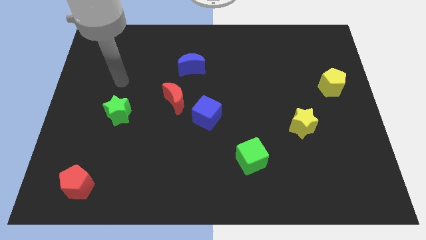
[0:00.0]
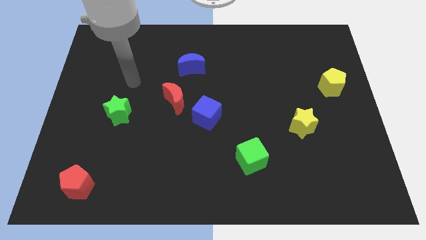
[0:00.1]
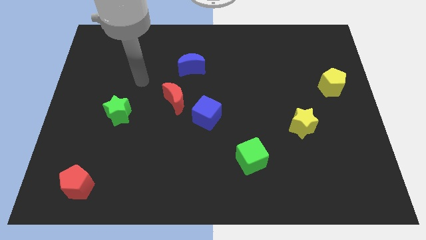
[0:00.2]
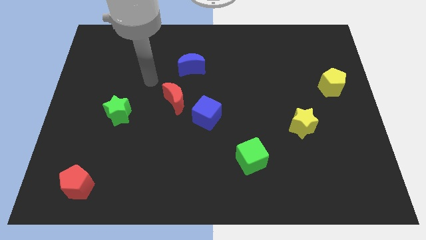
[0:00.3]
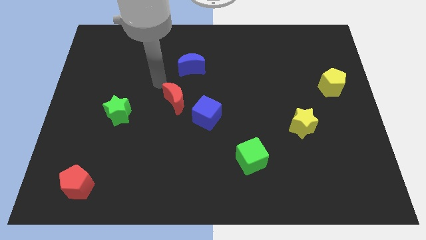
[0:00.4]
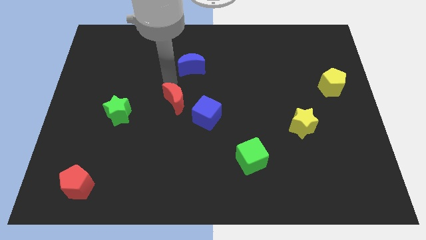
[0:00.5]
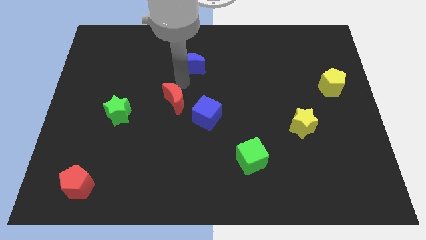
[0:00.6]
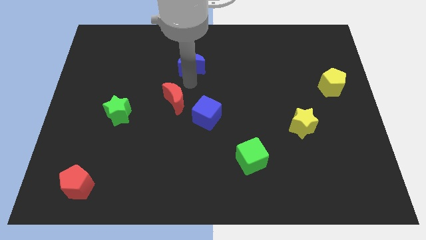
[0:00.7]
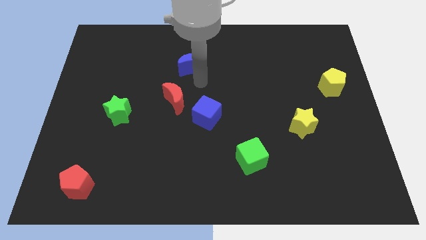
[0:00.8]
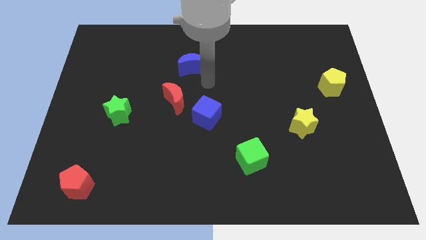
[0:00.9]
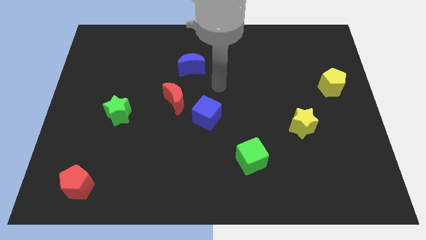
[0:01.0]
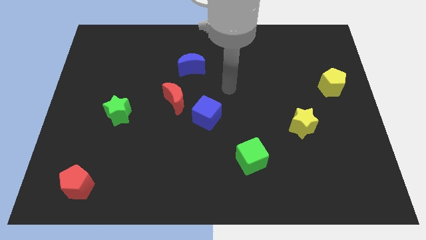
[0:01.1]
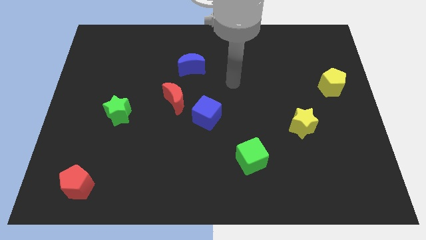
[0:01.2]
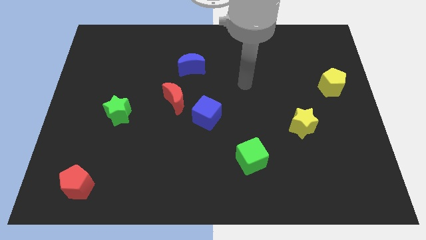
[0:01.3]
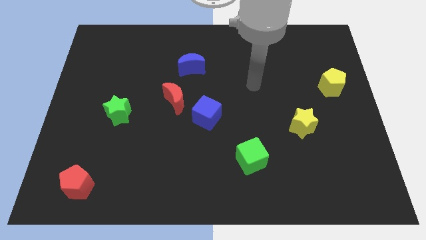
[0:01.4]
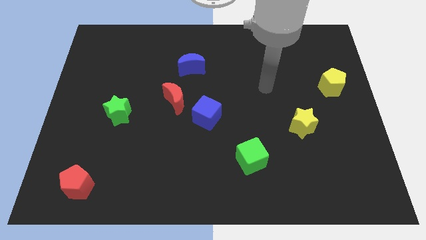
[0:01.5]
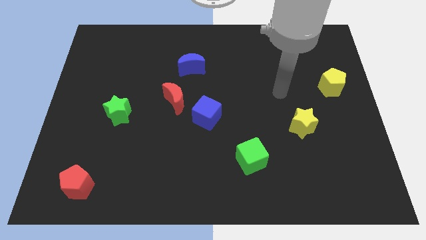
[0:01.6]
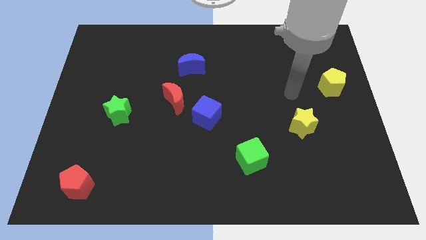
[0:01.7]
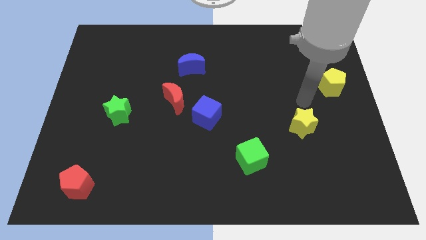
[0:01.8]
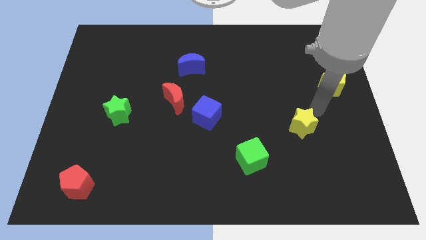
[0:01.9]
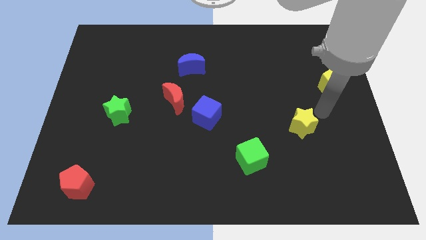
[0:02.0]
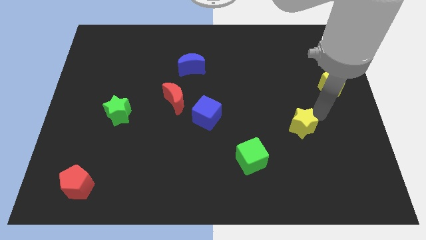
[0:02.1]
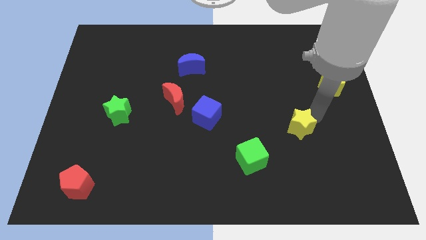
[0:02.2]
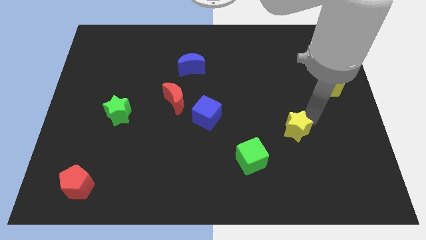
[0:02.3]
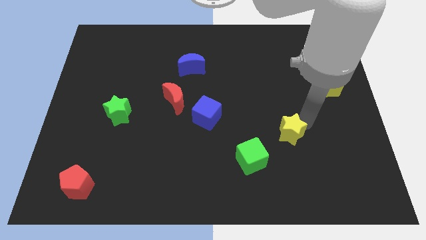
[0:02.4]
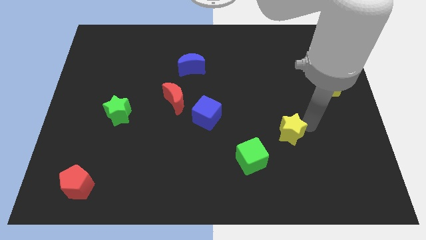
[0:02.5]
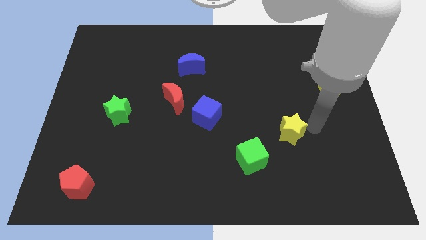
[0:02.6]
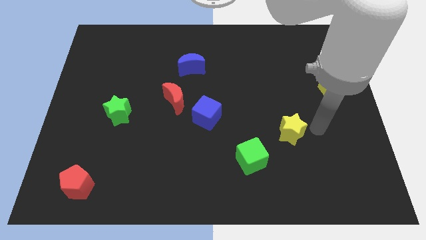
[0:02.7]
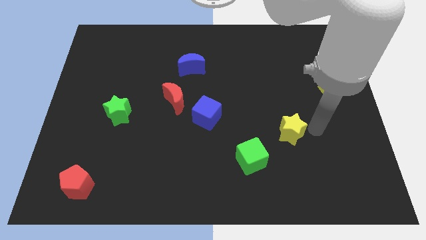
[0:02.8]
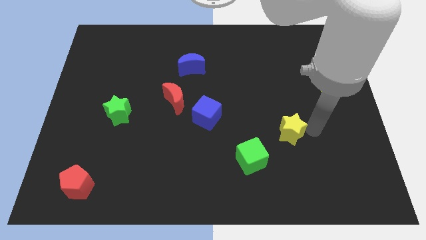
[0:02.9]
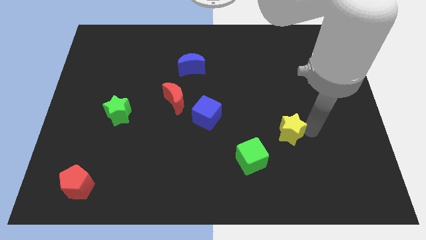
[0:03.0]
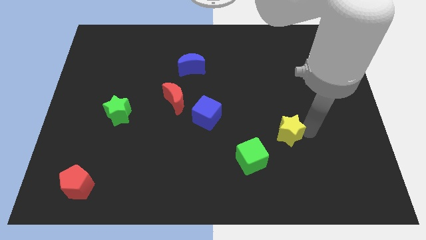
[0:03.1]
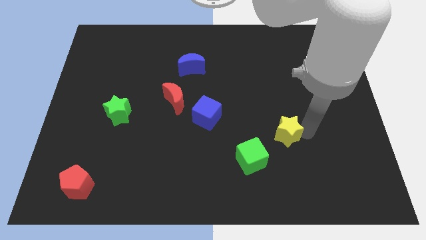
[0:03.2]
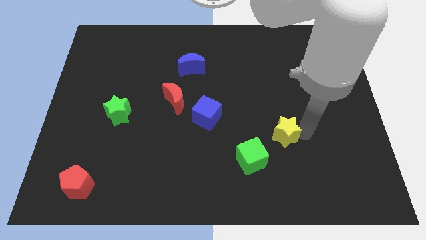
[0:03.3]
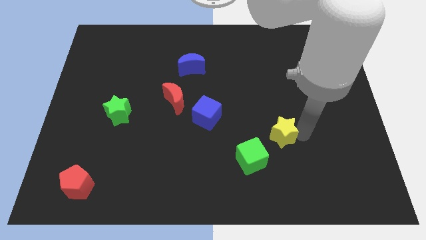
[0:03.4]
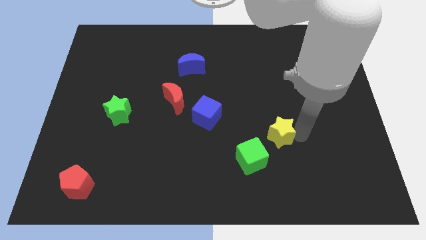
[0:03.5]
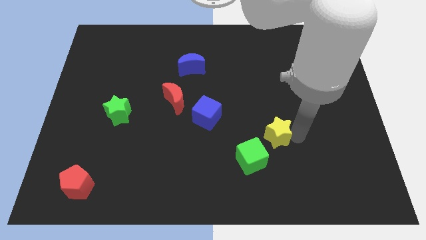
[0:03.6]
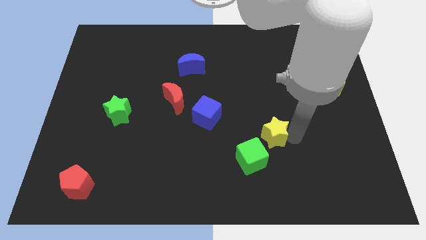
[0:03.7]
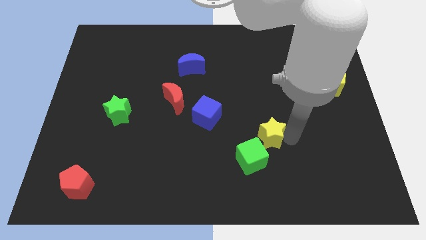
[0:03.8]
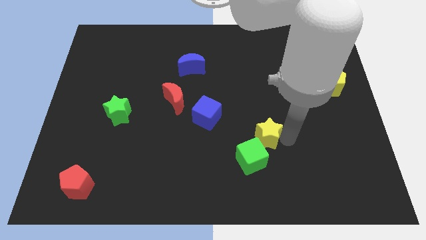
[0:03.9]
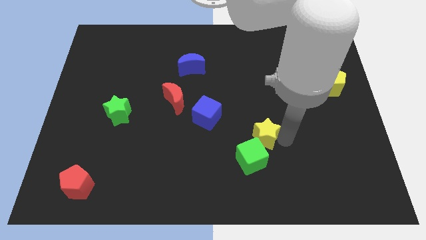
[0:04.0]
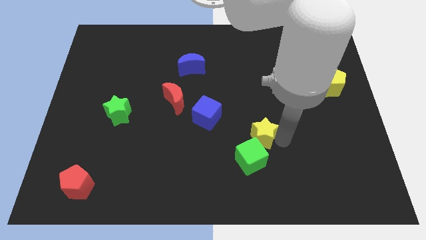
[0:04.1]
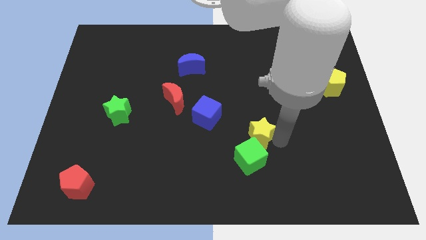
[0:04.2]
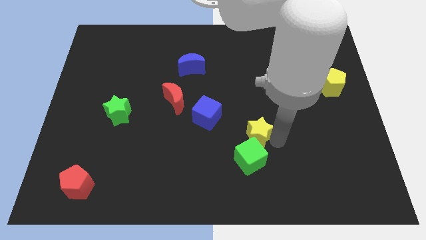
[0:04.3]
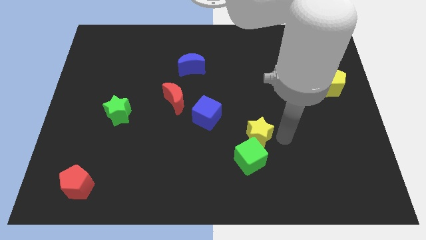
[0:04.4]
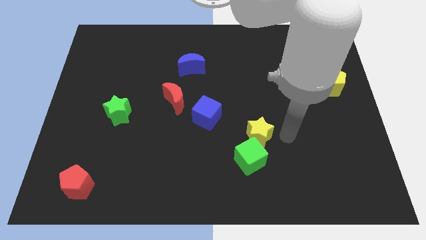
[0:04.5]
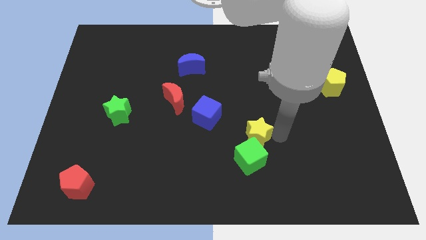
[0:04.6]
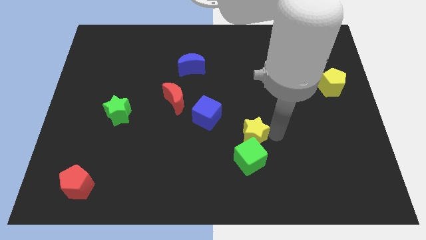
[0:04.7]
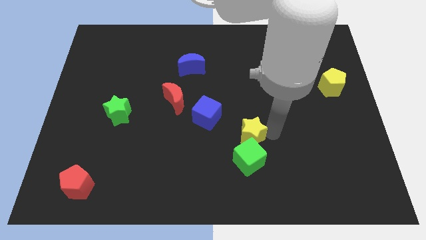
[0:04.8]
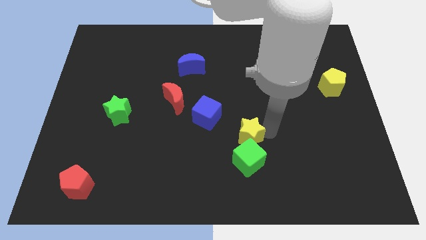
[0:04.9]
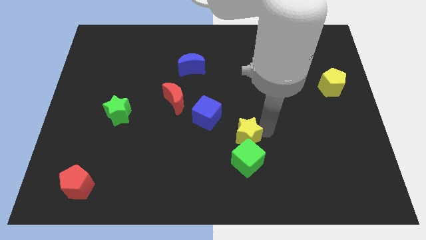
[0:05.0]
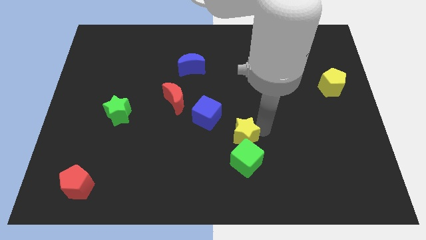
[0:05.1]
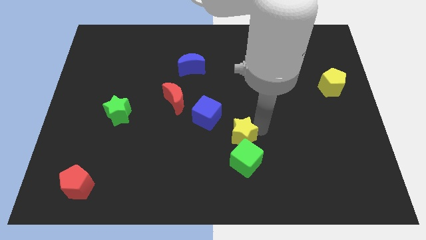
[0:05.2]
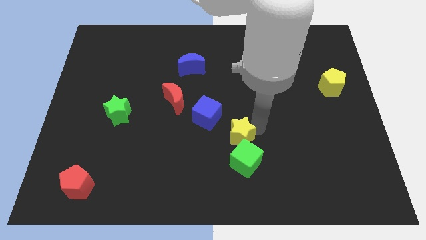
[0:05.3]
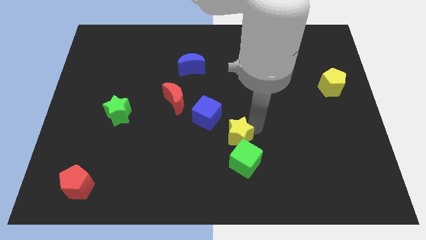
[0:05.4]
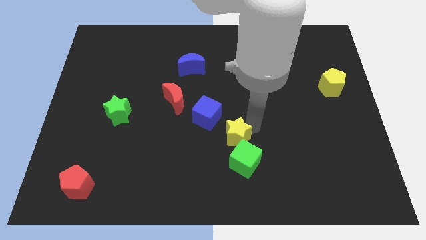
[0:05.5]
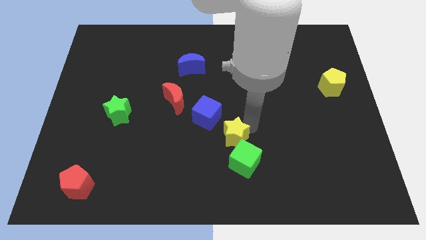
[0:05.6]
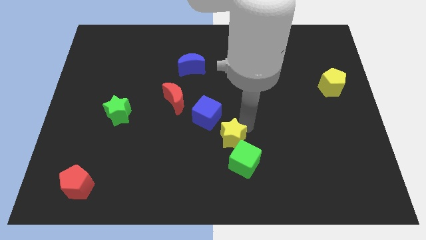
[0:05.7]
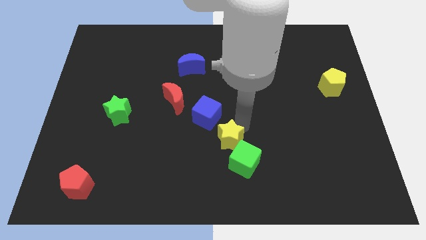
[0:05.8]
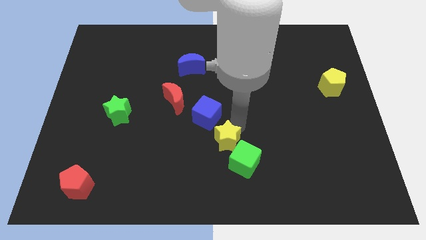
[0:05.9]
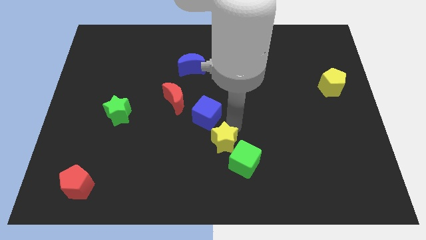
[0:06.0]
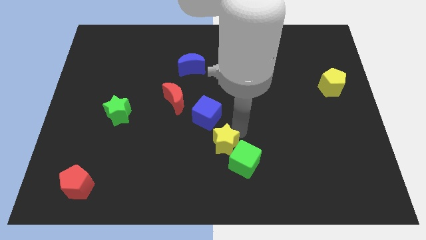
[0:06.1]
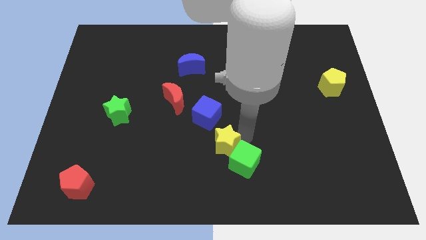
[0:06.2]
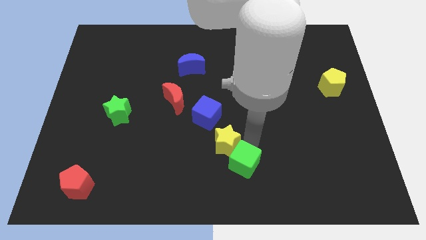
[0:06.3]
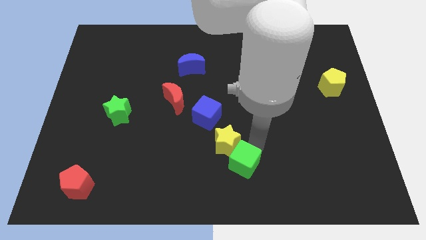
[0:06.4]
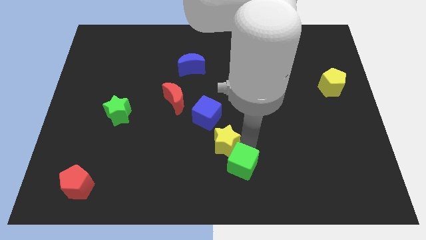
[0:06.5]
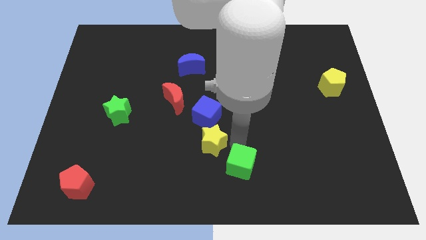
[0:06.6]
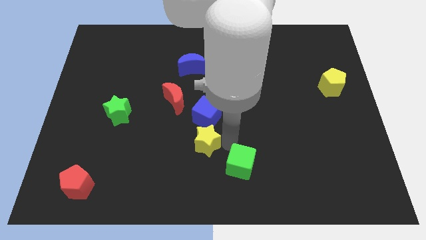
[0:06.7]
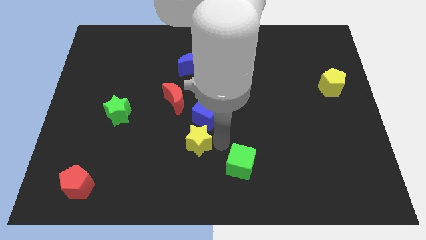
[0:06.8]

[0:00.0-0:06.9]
move the yellow star diagonally down and to the left of the blue cube

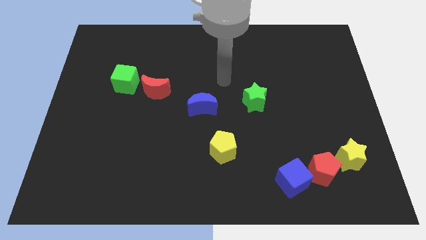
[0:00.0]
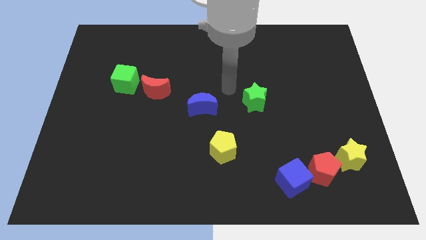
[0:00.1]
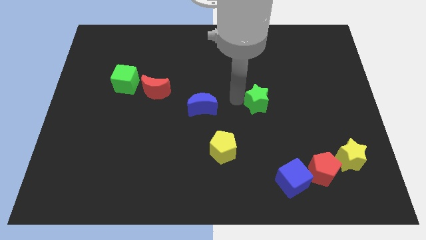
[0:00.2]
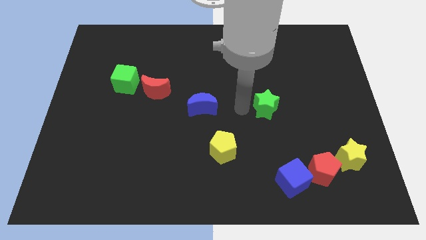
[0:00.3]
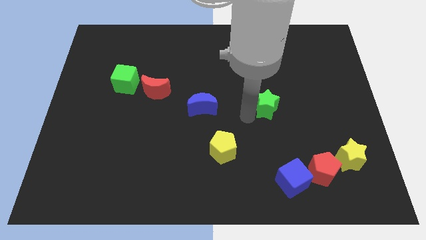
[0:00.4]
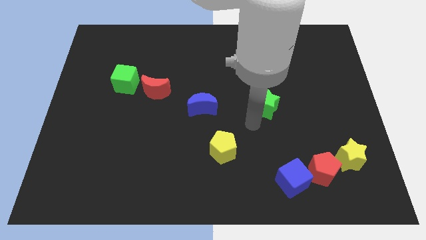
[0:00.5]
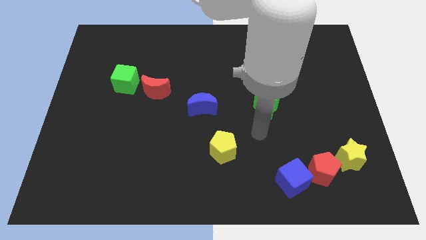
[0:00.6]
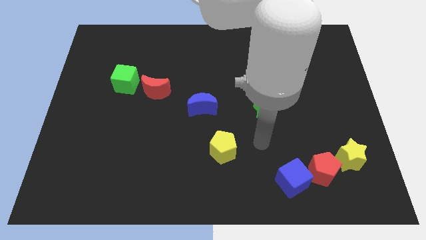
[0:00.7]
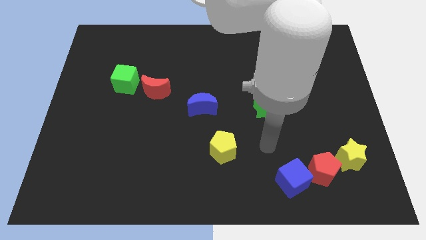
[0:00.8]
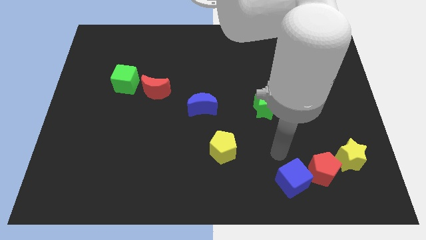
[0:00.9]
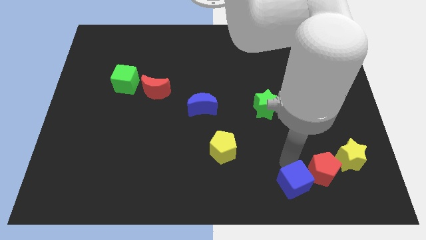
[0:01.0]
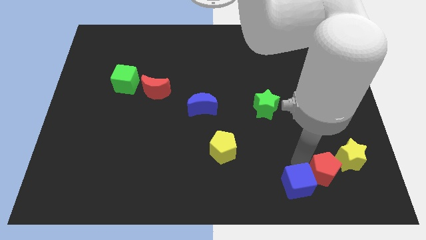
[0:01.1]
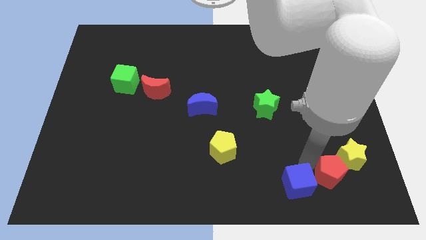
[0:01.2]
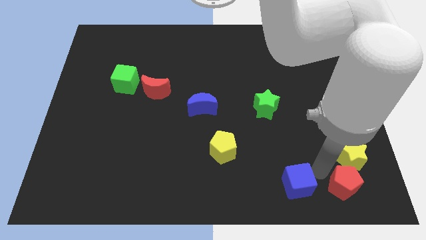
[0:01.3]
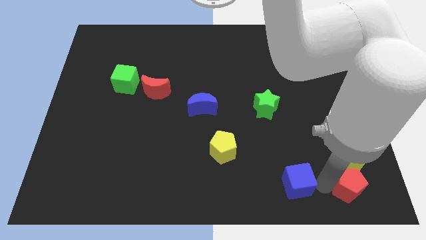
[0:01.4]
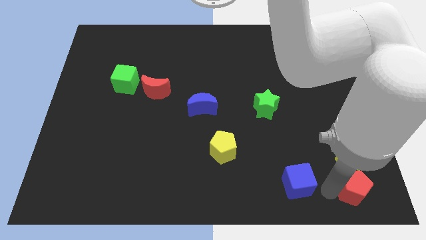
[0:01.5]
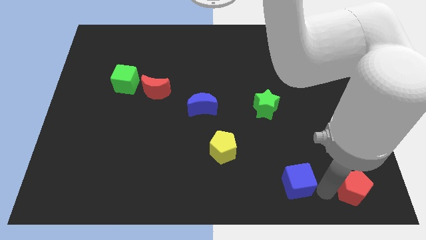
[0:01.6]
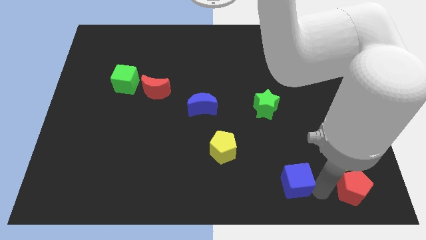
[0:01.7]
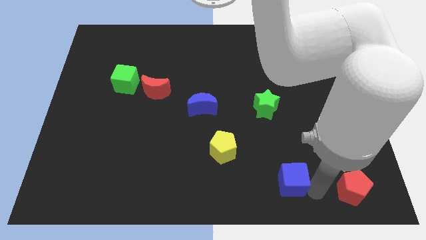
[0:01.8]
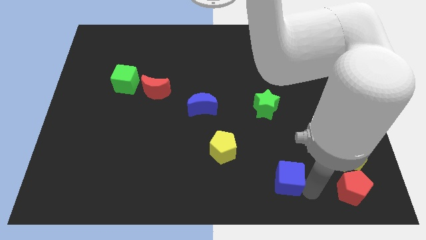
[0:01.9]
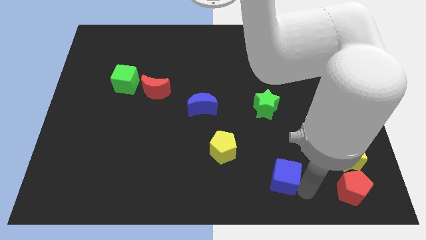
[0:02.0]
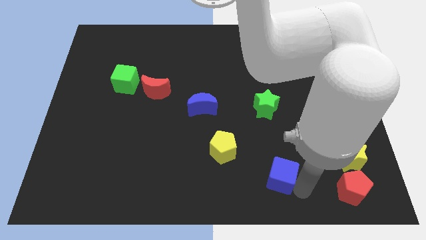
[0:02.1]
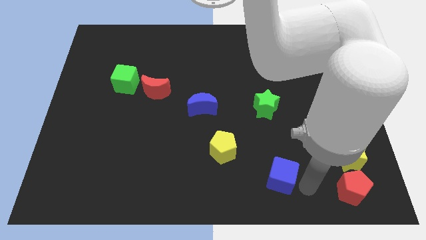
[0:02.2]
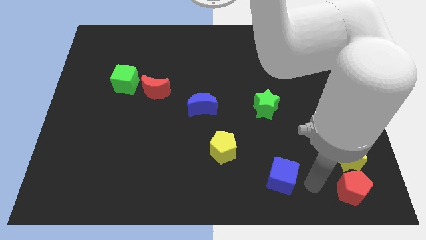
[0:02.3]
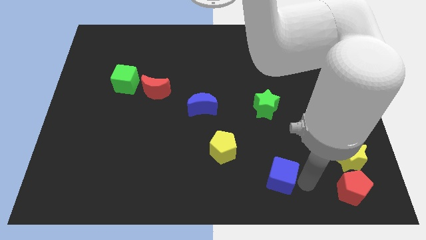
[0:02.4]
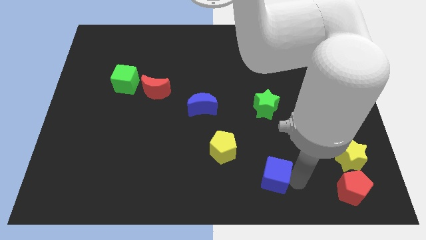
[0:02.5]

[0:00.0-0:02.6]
push the blue cube to the bottom right side of the yellow pentagon
